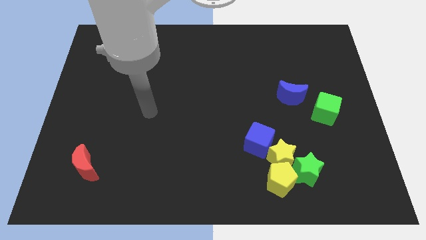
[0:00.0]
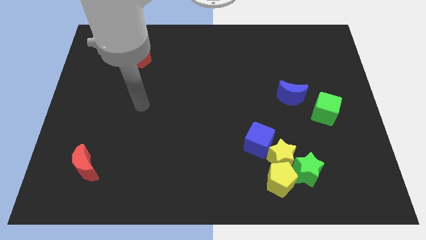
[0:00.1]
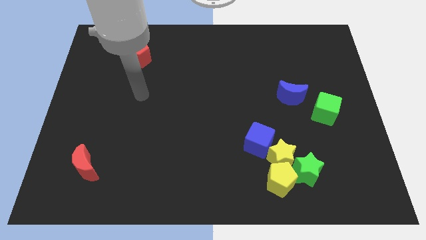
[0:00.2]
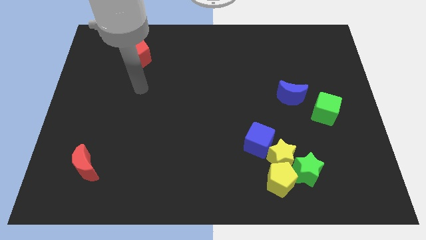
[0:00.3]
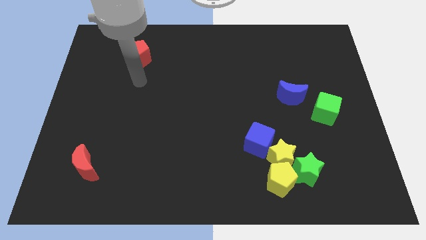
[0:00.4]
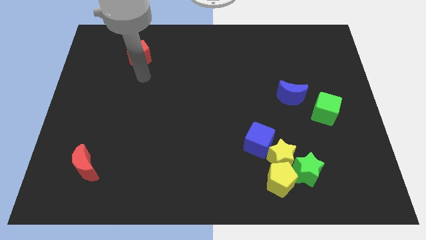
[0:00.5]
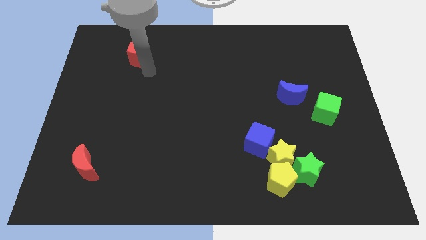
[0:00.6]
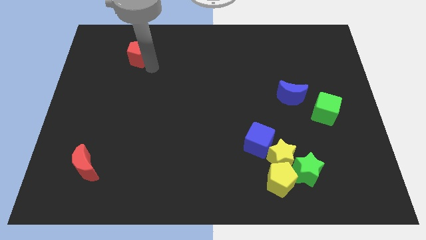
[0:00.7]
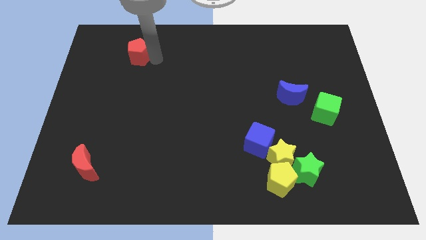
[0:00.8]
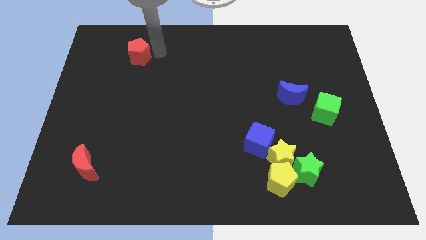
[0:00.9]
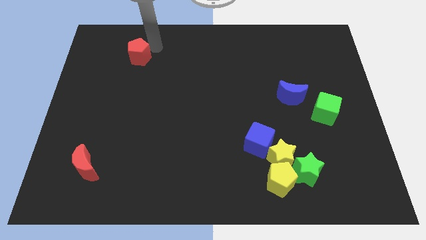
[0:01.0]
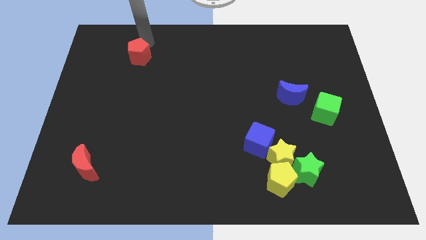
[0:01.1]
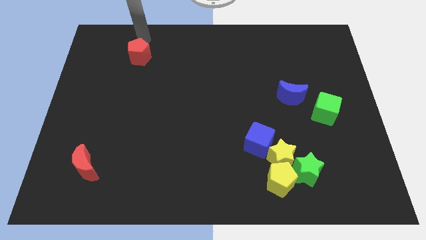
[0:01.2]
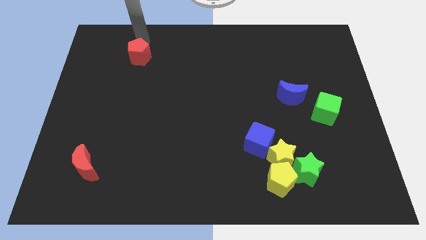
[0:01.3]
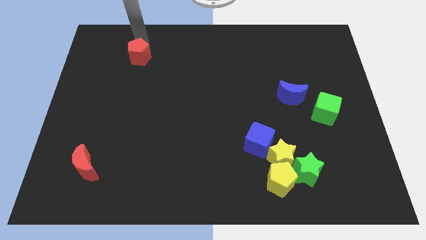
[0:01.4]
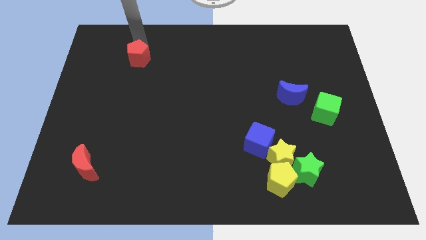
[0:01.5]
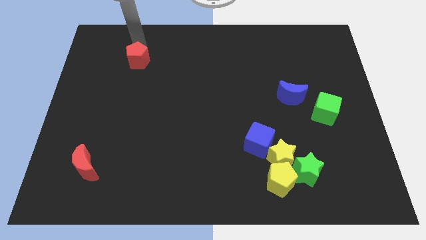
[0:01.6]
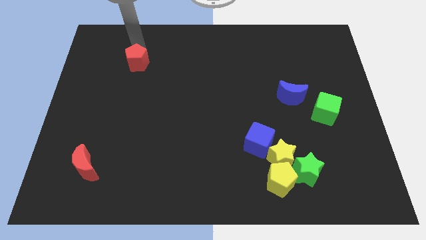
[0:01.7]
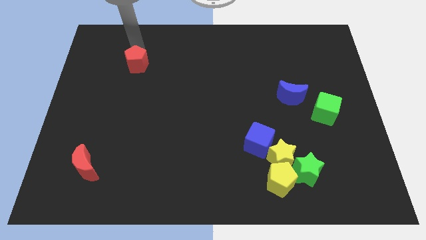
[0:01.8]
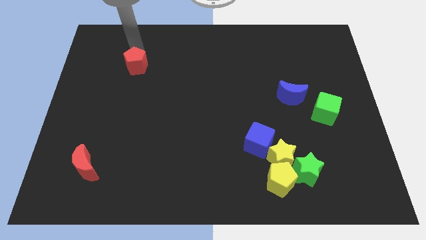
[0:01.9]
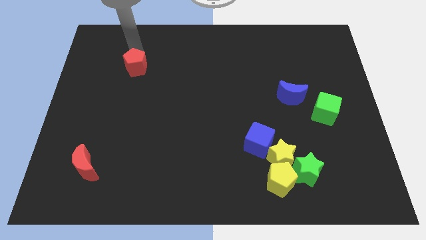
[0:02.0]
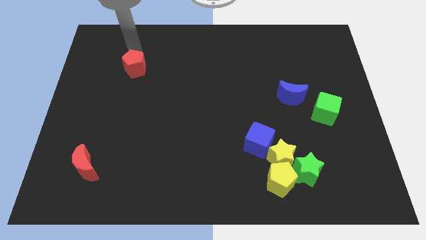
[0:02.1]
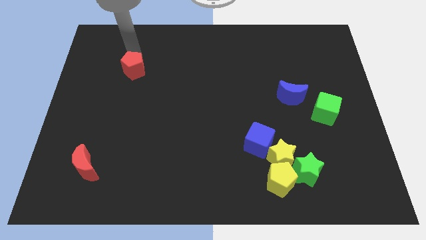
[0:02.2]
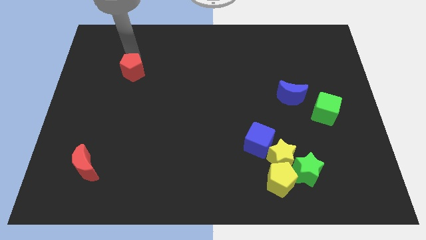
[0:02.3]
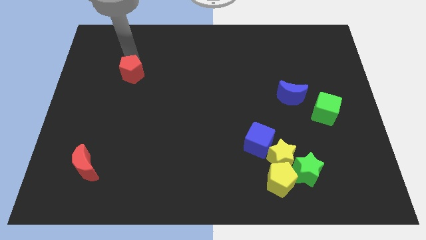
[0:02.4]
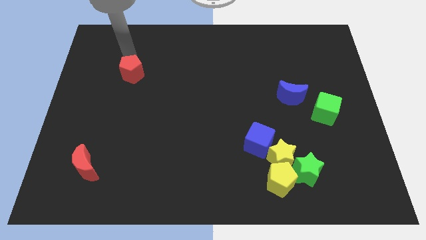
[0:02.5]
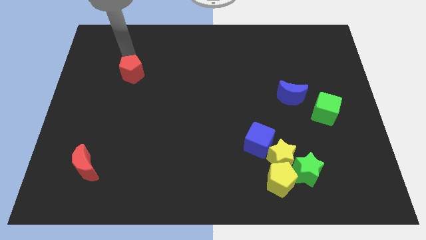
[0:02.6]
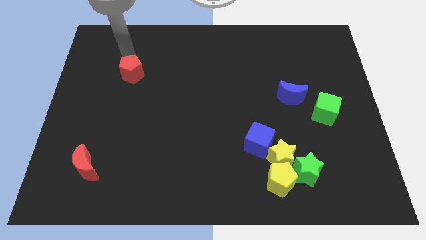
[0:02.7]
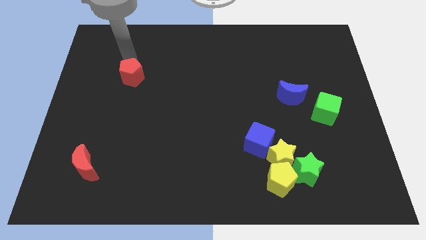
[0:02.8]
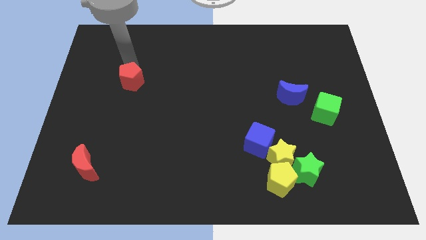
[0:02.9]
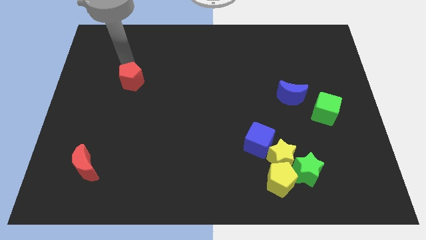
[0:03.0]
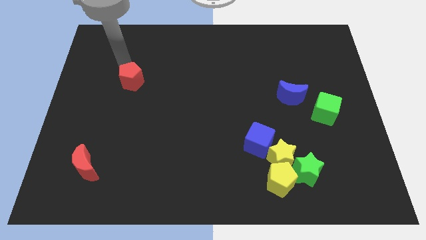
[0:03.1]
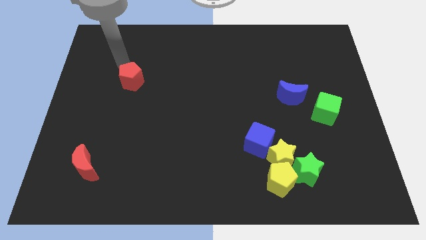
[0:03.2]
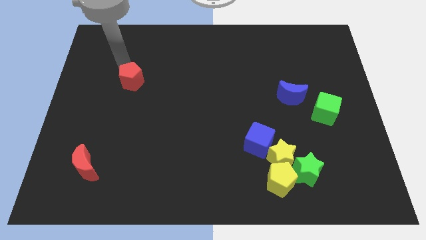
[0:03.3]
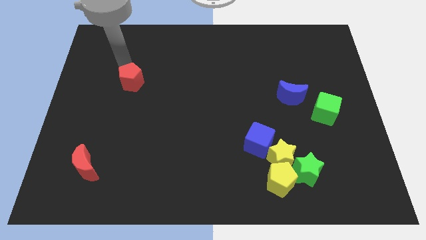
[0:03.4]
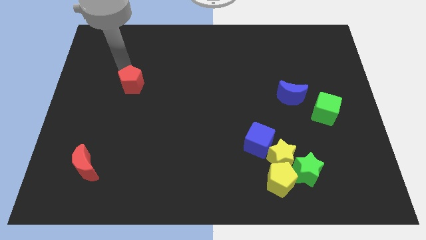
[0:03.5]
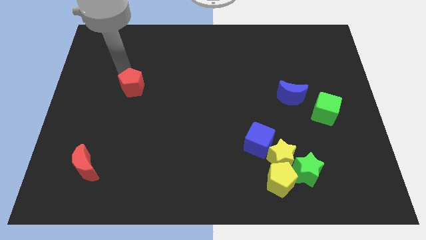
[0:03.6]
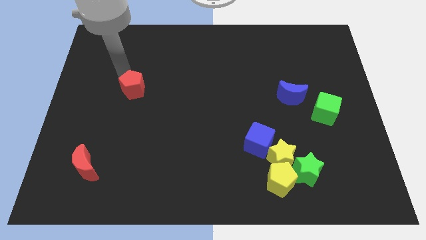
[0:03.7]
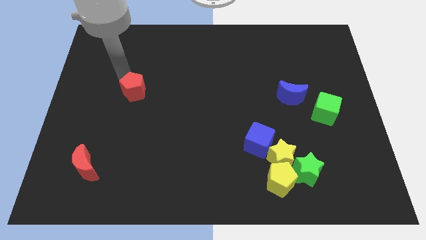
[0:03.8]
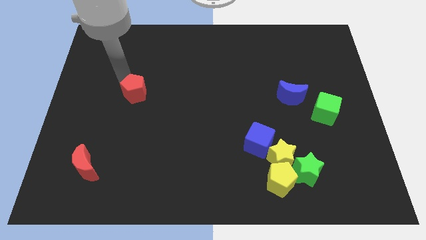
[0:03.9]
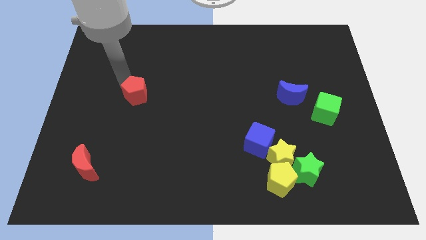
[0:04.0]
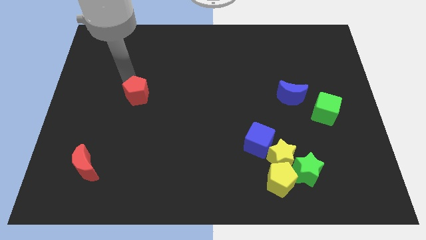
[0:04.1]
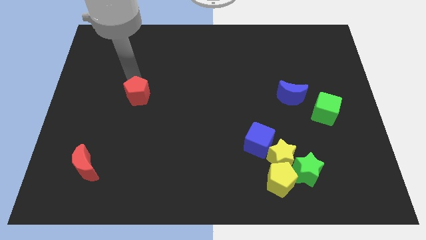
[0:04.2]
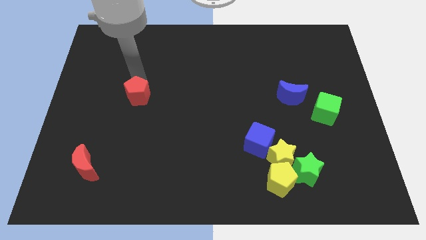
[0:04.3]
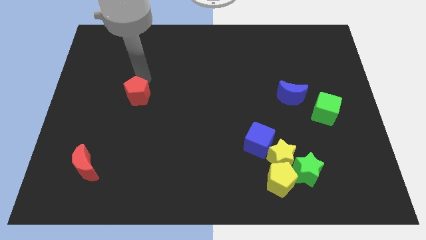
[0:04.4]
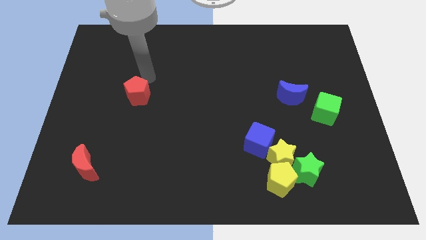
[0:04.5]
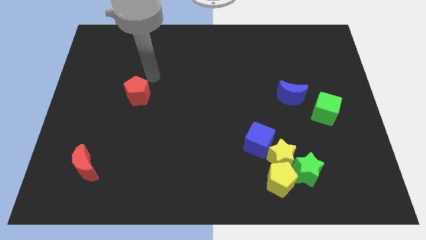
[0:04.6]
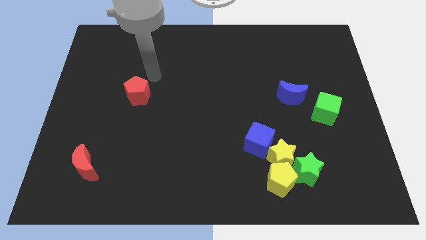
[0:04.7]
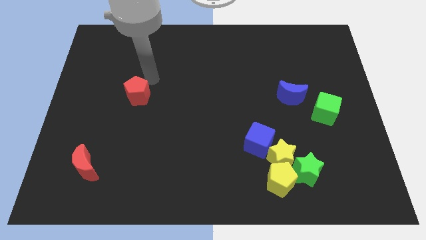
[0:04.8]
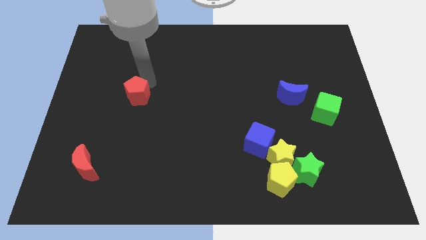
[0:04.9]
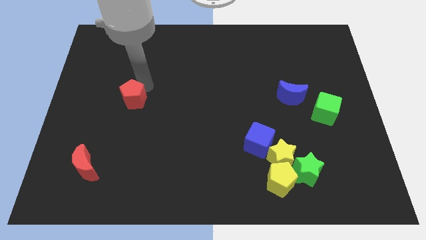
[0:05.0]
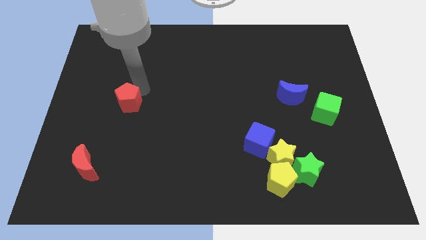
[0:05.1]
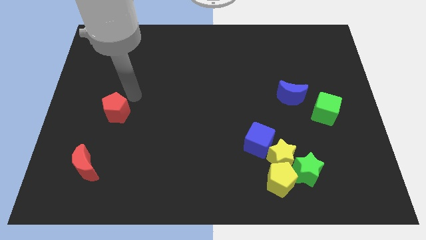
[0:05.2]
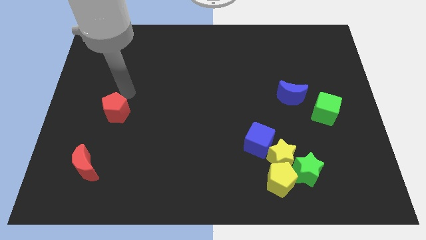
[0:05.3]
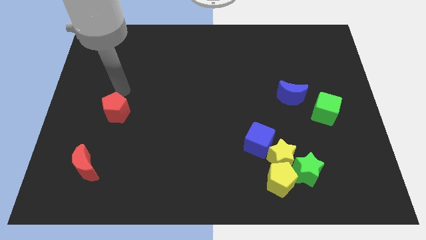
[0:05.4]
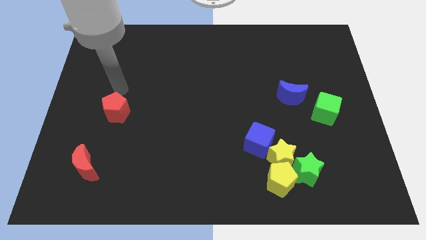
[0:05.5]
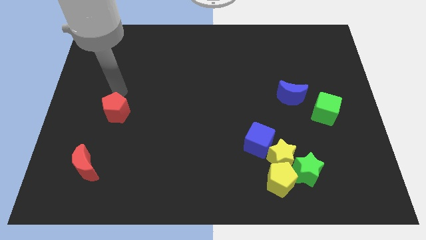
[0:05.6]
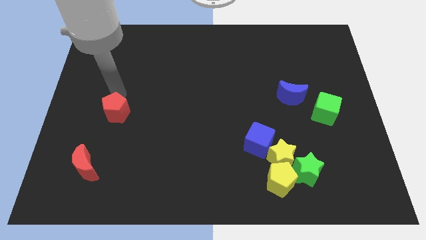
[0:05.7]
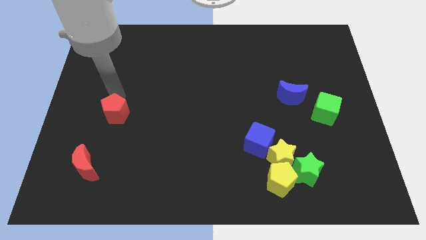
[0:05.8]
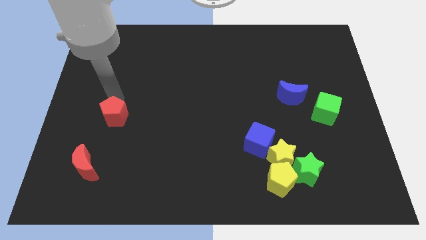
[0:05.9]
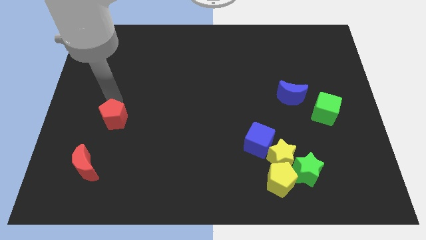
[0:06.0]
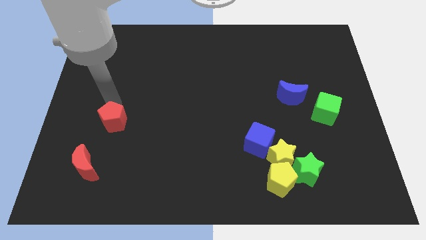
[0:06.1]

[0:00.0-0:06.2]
slide the red pentagon downwards

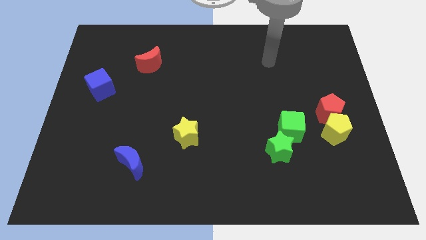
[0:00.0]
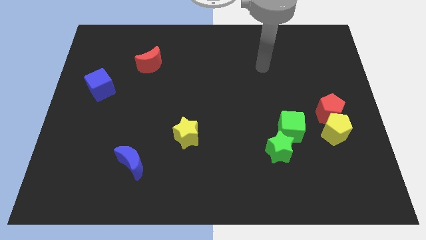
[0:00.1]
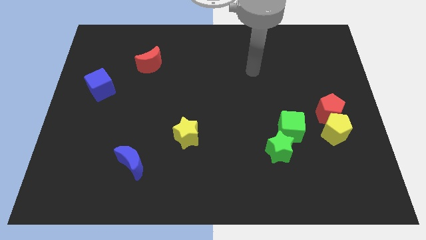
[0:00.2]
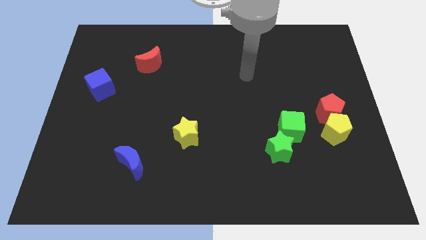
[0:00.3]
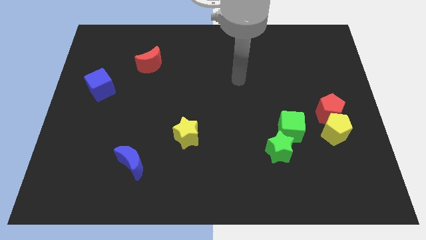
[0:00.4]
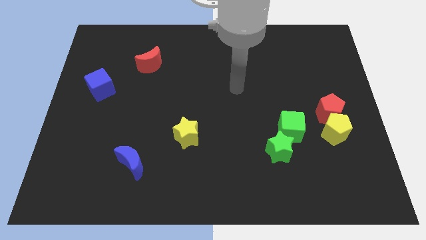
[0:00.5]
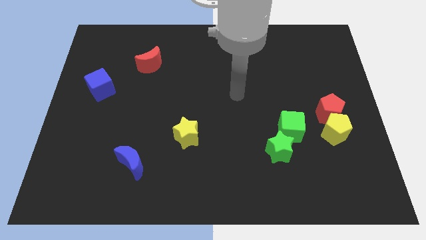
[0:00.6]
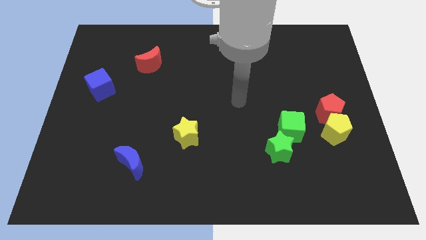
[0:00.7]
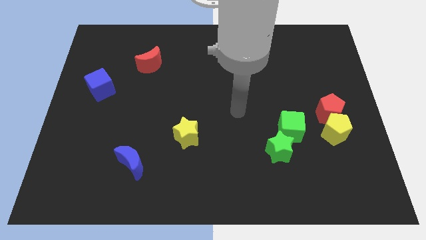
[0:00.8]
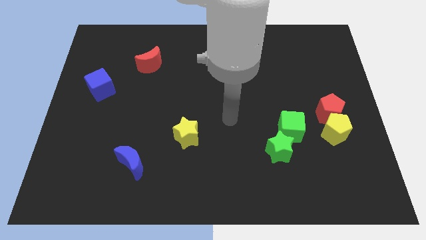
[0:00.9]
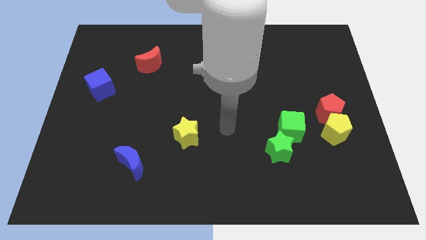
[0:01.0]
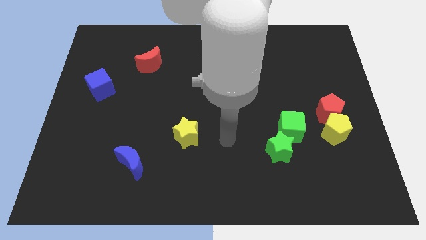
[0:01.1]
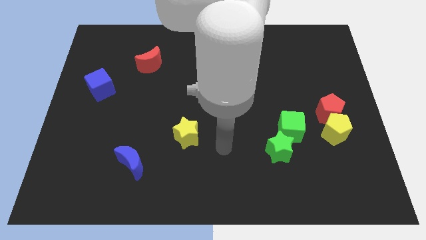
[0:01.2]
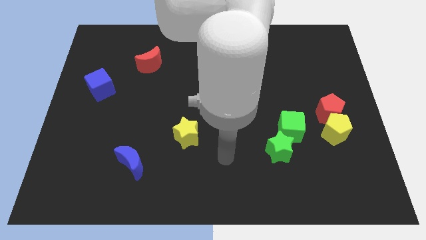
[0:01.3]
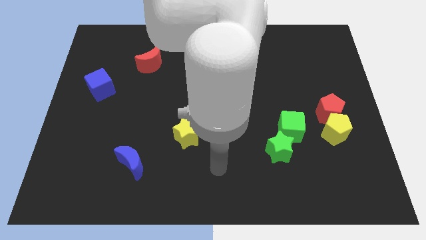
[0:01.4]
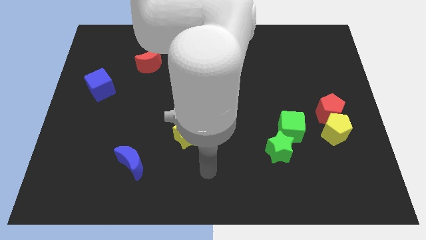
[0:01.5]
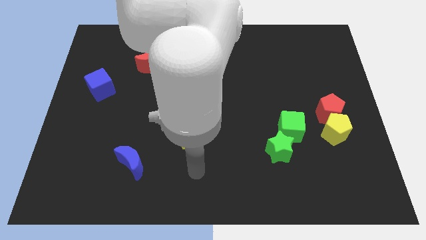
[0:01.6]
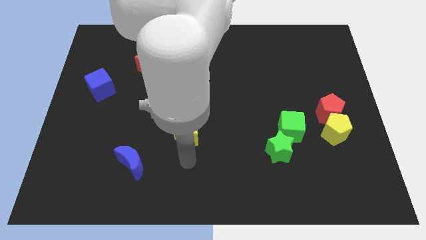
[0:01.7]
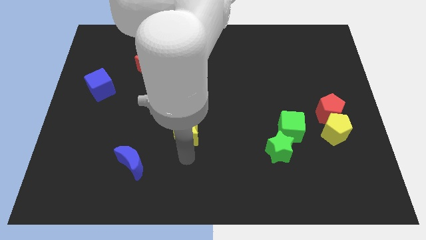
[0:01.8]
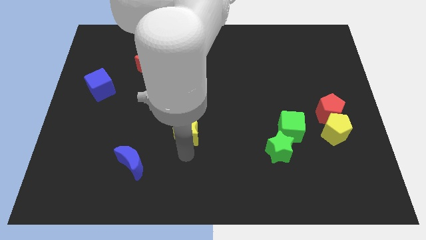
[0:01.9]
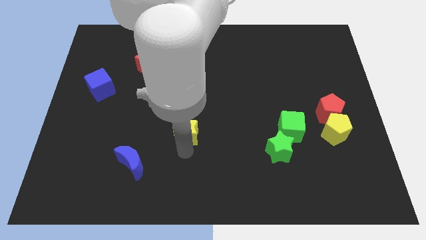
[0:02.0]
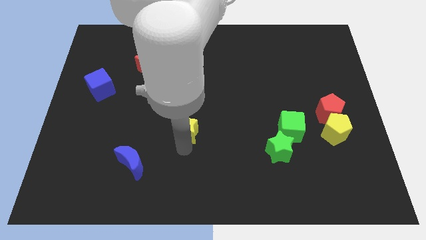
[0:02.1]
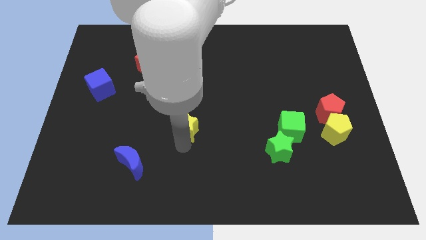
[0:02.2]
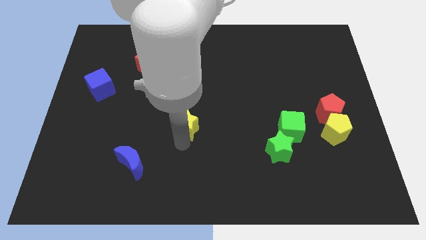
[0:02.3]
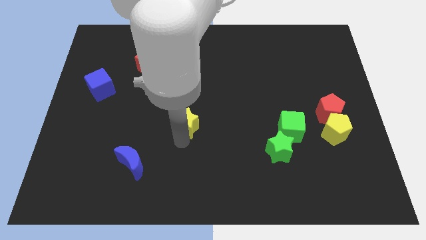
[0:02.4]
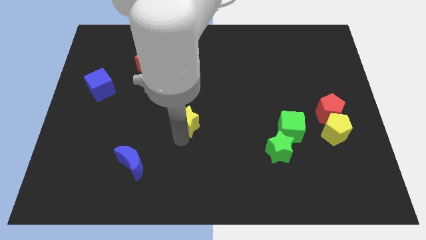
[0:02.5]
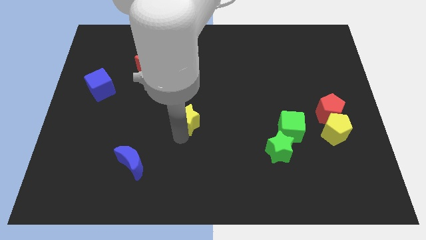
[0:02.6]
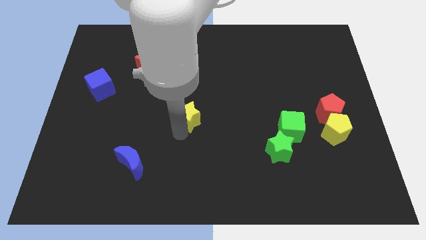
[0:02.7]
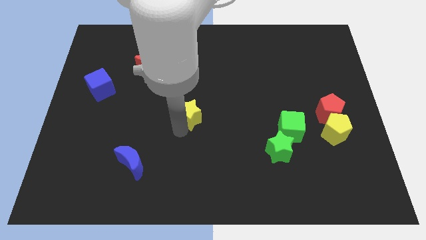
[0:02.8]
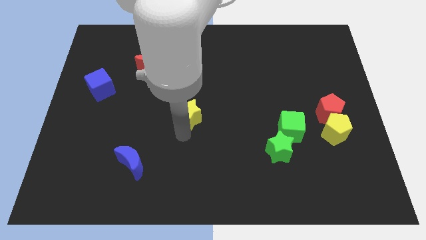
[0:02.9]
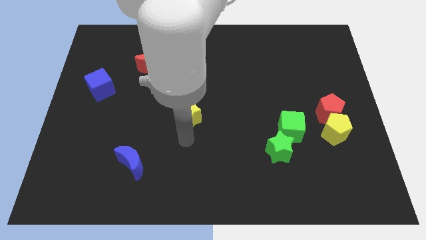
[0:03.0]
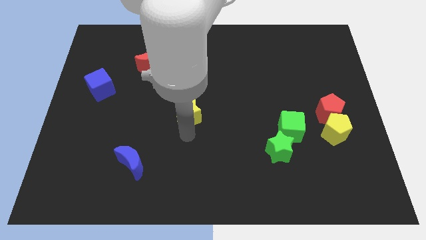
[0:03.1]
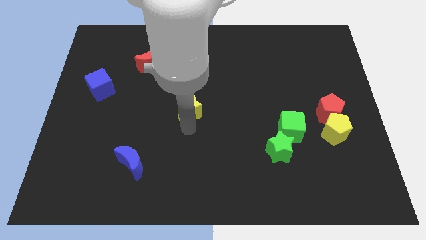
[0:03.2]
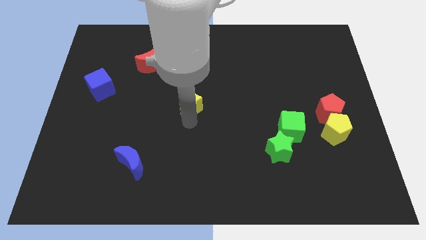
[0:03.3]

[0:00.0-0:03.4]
slightly push the yellow star upwards
